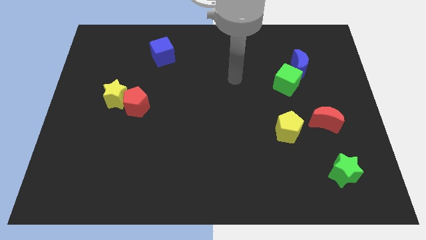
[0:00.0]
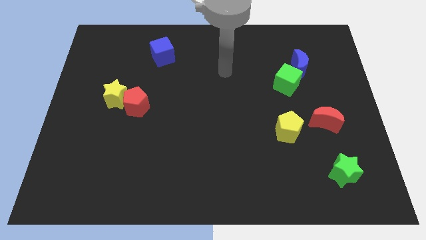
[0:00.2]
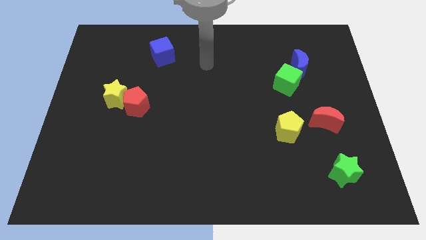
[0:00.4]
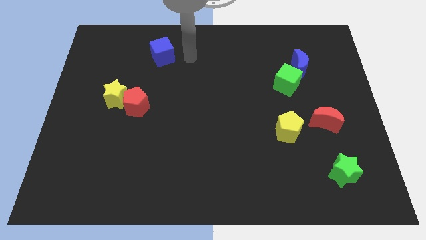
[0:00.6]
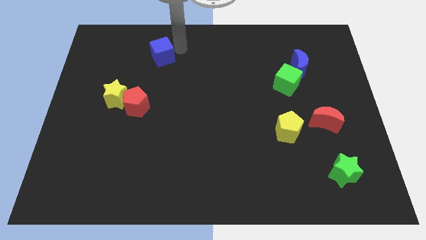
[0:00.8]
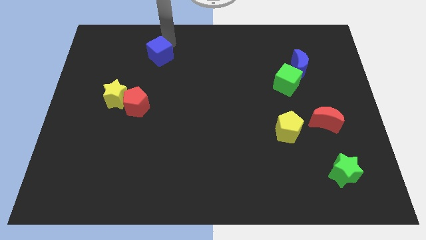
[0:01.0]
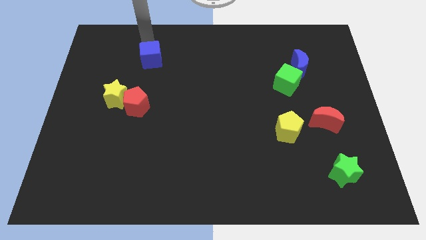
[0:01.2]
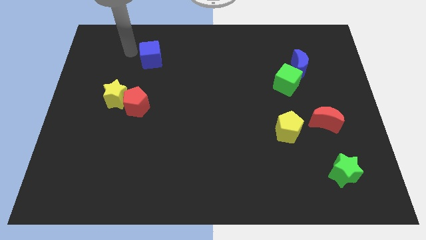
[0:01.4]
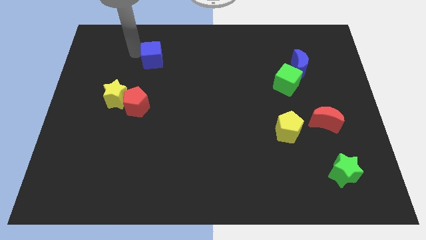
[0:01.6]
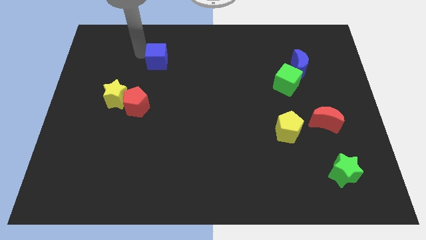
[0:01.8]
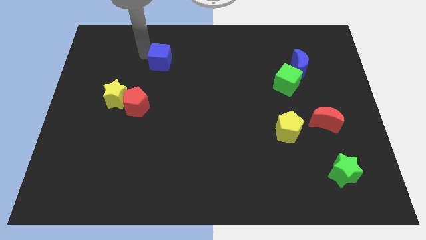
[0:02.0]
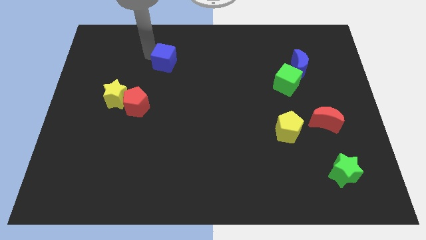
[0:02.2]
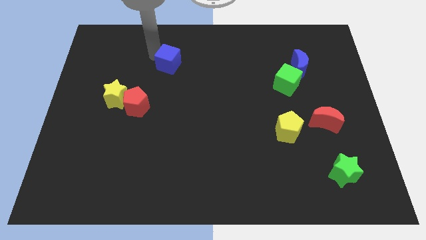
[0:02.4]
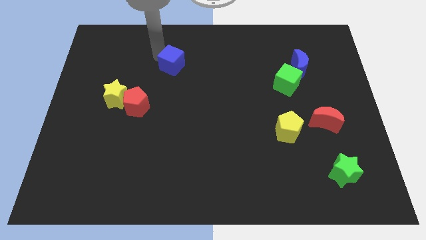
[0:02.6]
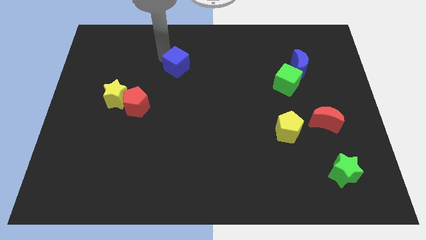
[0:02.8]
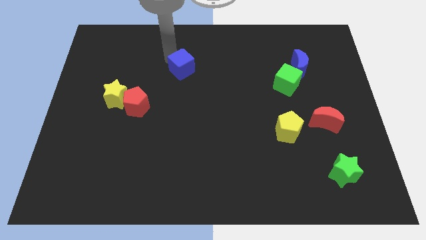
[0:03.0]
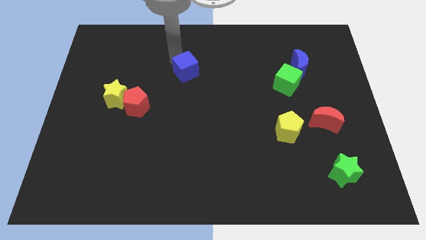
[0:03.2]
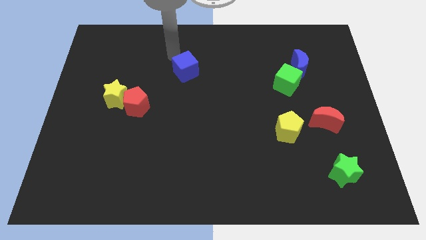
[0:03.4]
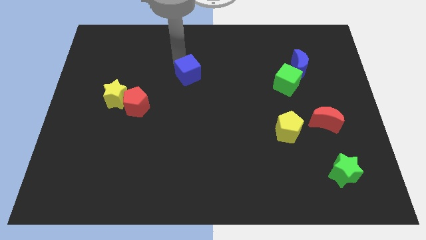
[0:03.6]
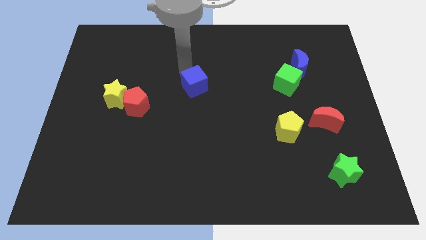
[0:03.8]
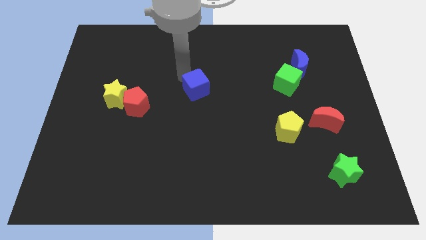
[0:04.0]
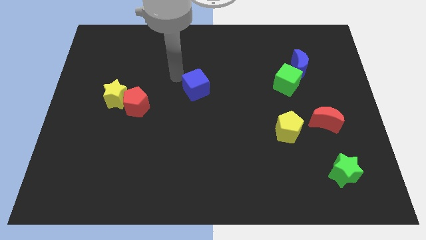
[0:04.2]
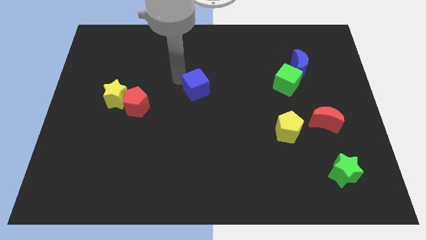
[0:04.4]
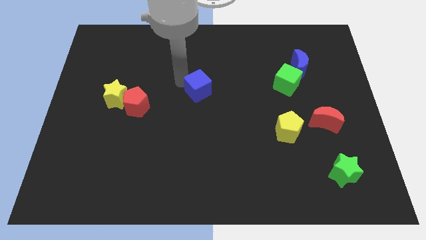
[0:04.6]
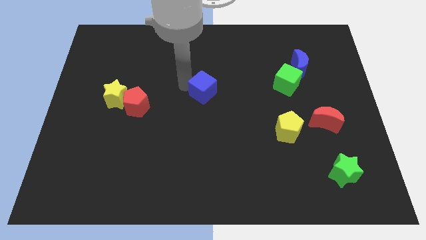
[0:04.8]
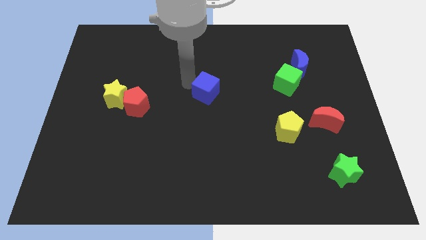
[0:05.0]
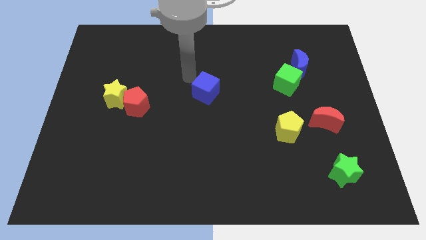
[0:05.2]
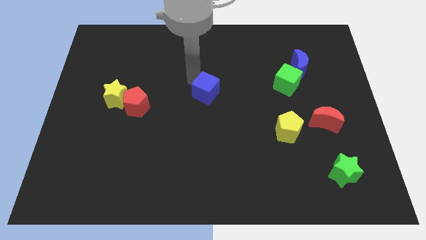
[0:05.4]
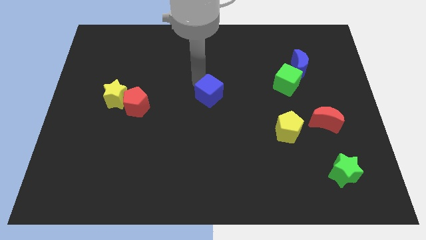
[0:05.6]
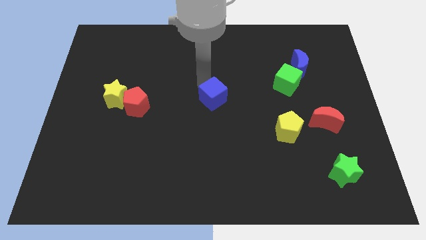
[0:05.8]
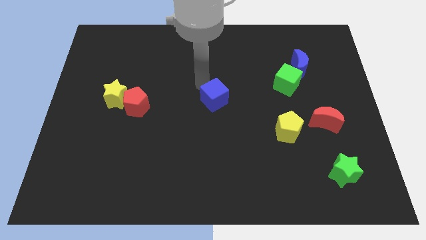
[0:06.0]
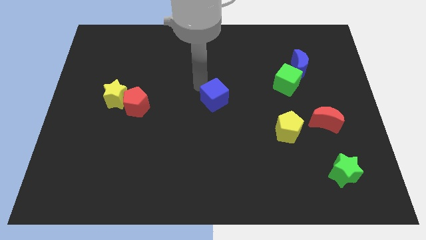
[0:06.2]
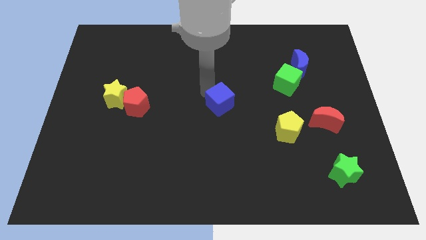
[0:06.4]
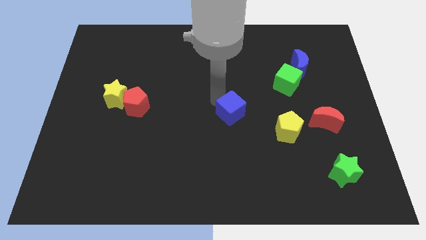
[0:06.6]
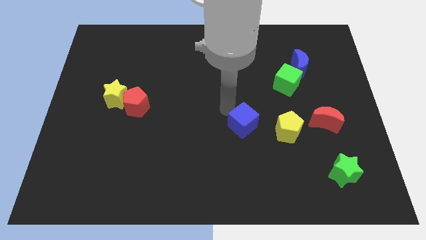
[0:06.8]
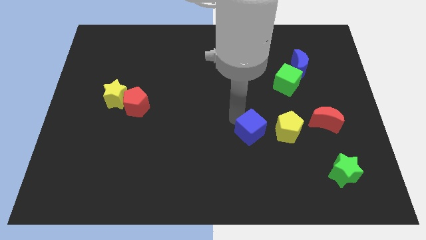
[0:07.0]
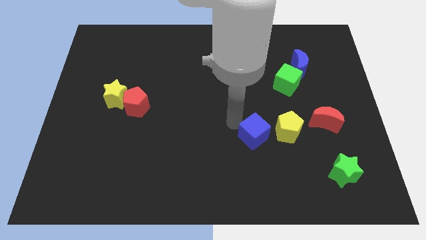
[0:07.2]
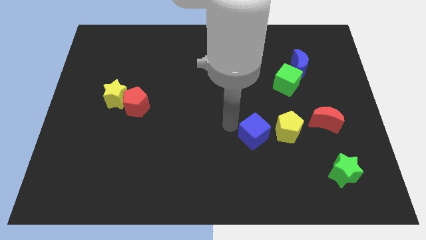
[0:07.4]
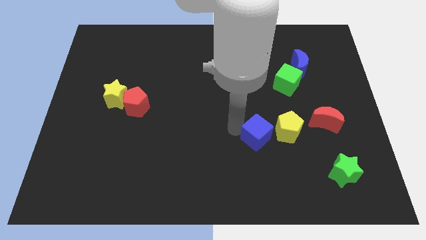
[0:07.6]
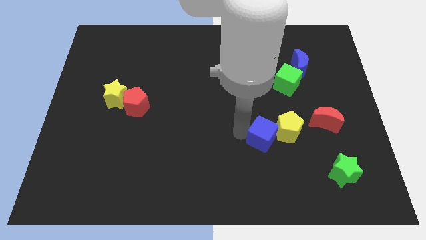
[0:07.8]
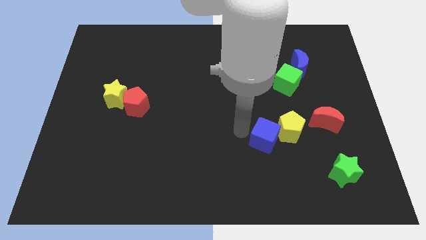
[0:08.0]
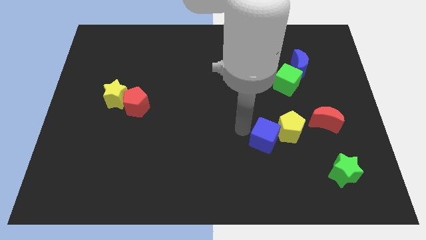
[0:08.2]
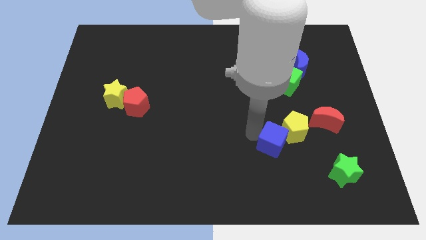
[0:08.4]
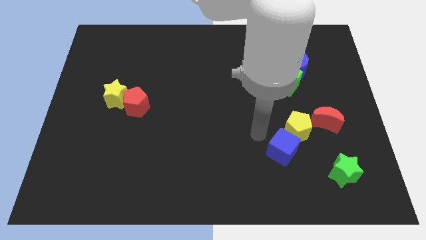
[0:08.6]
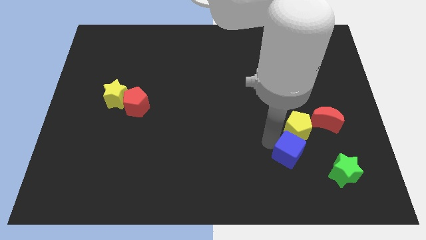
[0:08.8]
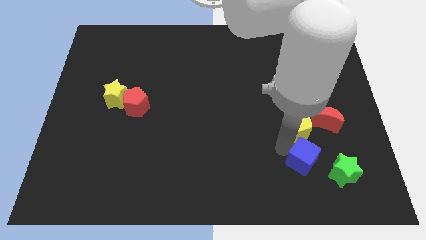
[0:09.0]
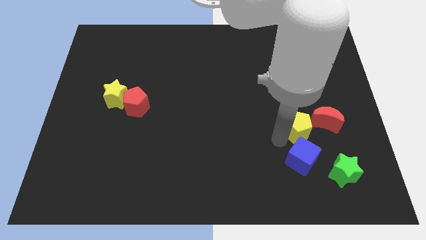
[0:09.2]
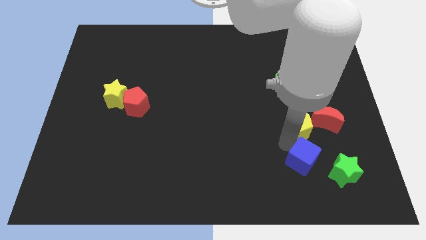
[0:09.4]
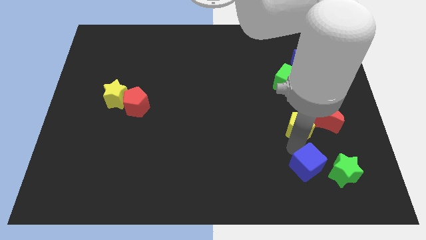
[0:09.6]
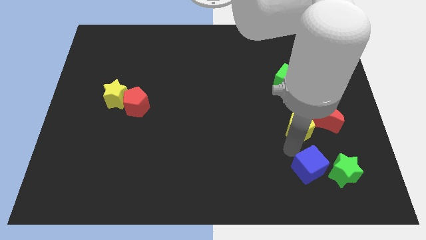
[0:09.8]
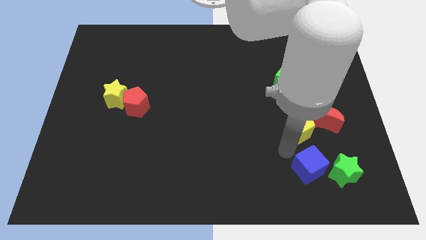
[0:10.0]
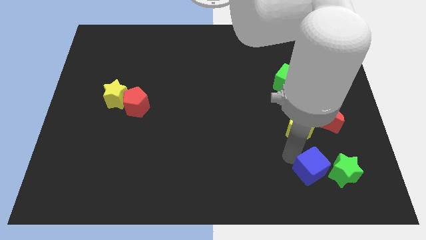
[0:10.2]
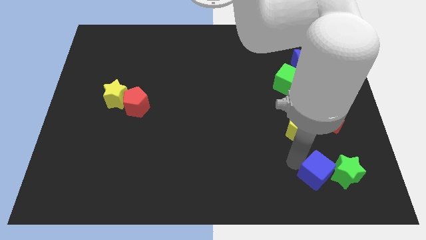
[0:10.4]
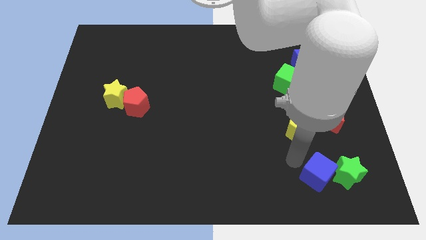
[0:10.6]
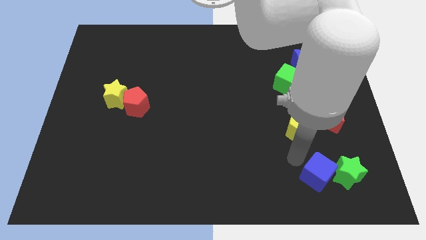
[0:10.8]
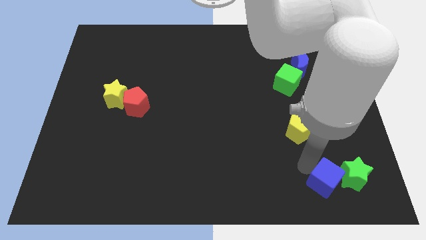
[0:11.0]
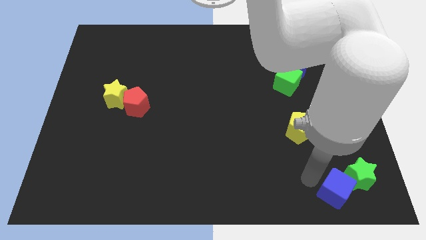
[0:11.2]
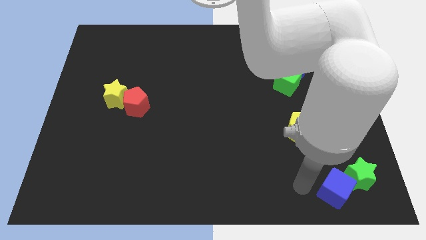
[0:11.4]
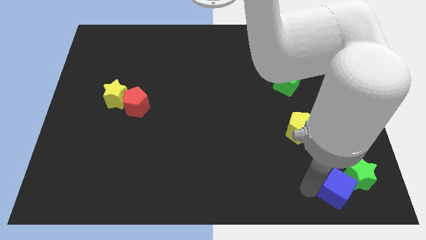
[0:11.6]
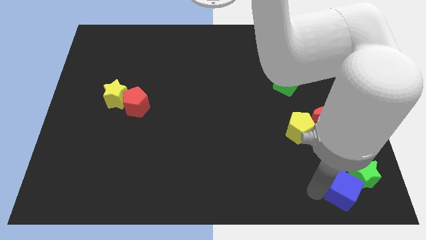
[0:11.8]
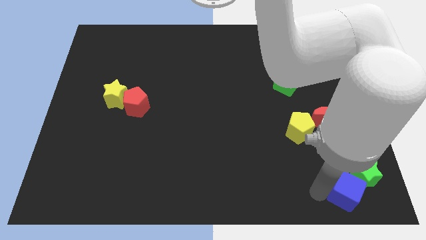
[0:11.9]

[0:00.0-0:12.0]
slide the blue cube to the bottom right

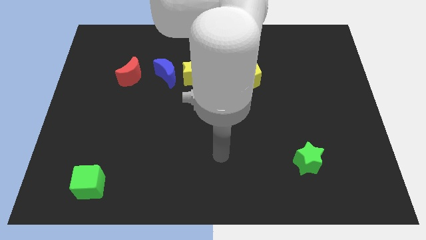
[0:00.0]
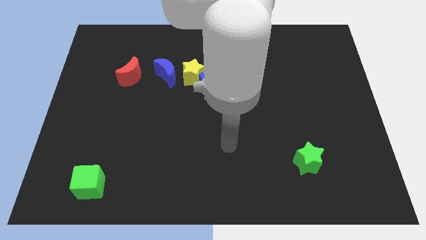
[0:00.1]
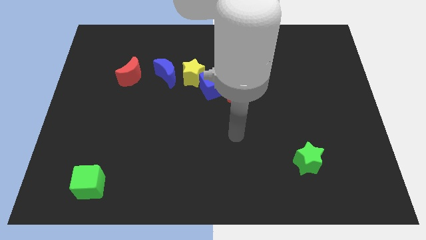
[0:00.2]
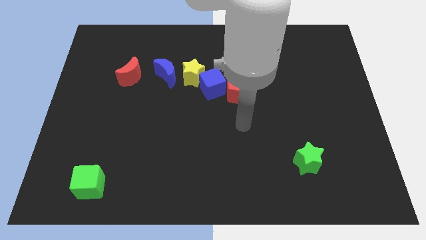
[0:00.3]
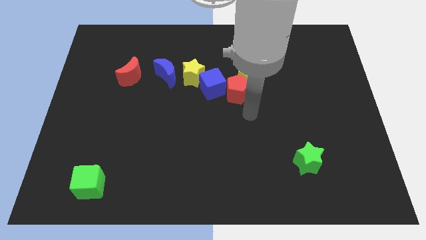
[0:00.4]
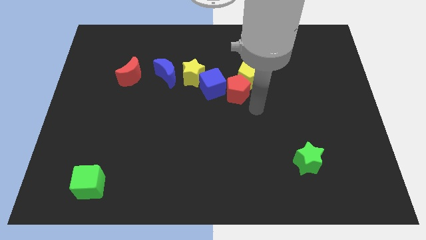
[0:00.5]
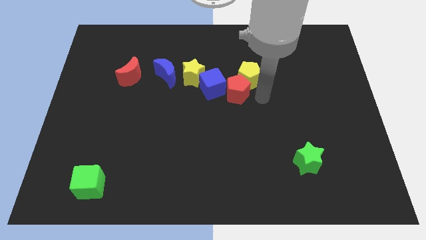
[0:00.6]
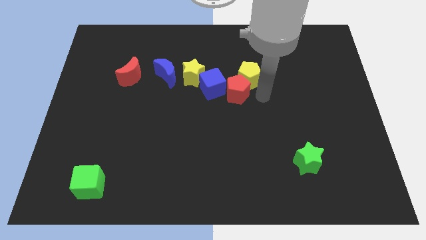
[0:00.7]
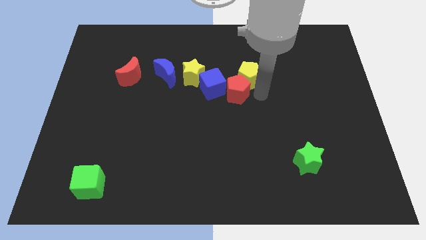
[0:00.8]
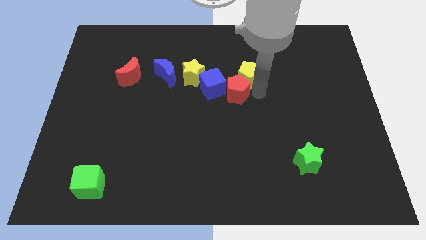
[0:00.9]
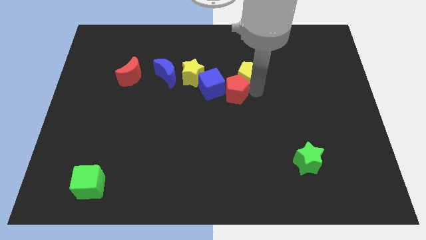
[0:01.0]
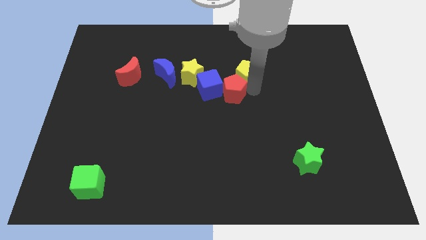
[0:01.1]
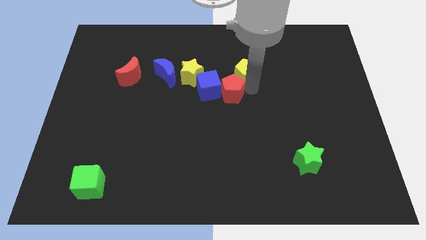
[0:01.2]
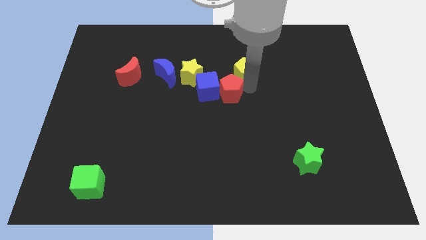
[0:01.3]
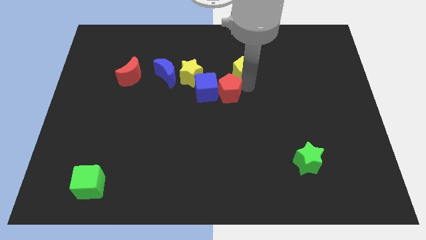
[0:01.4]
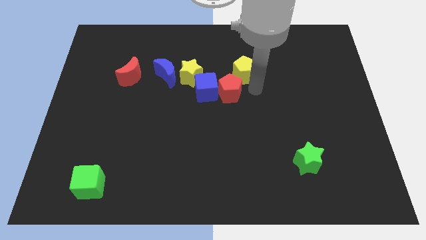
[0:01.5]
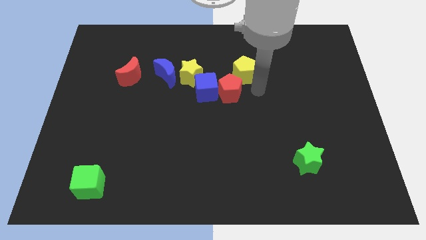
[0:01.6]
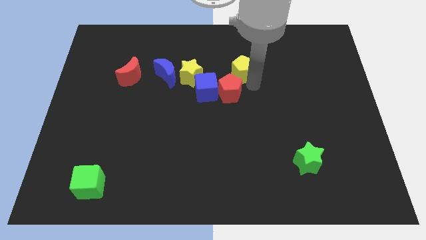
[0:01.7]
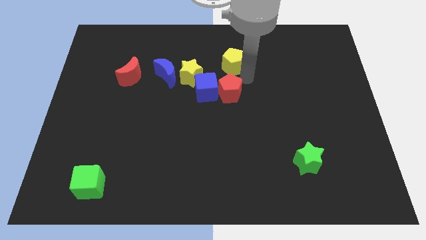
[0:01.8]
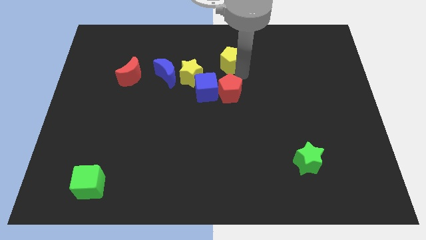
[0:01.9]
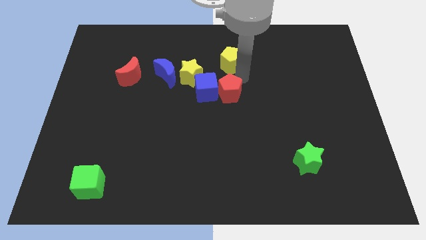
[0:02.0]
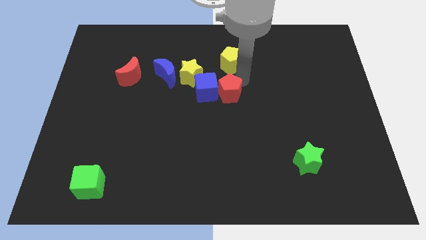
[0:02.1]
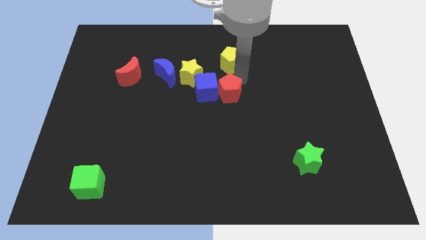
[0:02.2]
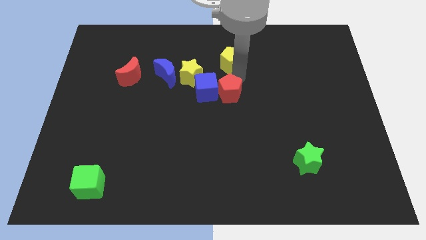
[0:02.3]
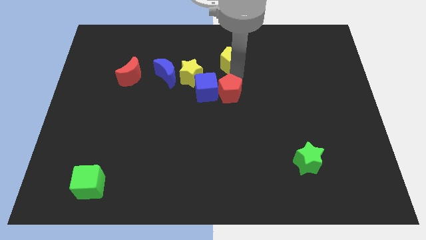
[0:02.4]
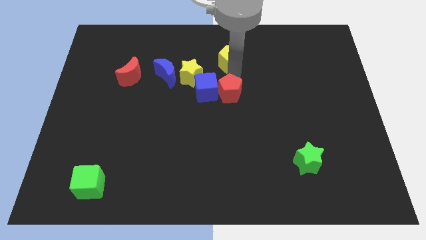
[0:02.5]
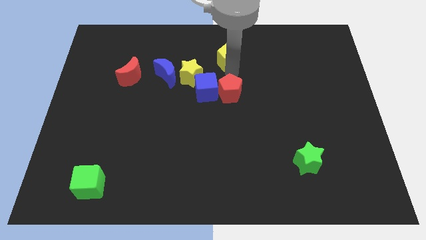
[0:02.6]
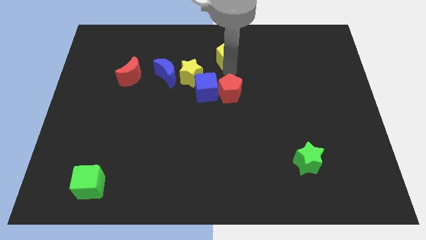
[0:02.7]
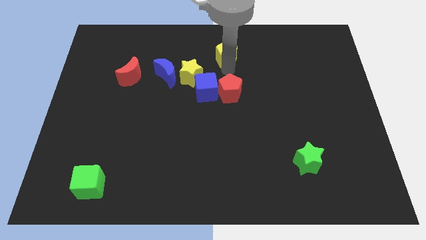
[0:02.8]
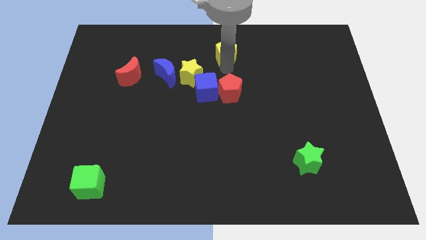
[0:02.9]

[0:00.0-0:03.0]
slide the yellow pentagon to the towards your base
